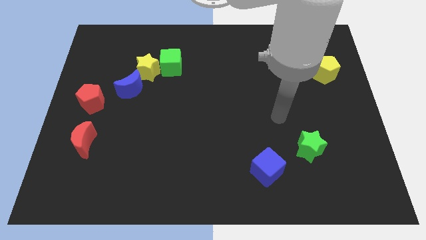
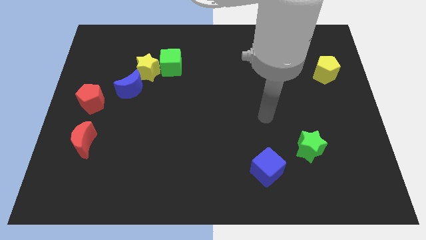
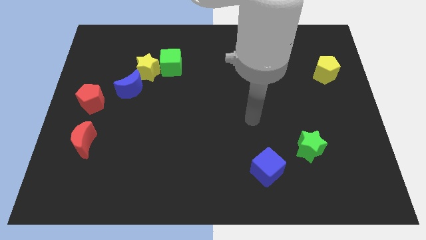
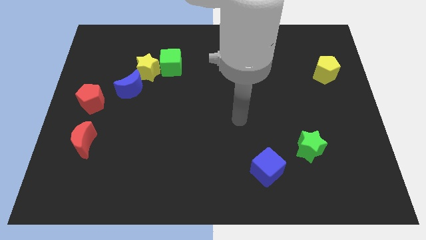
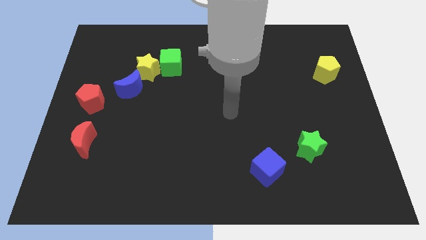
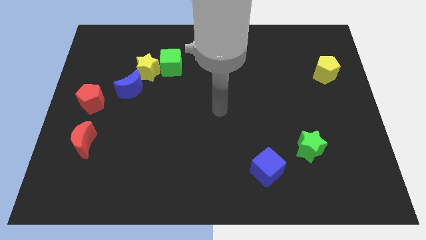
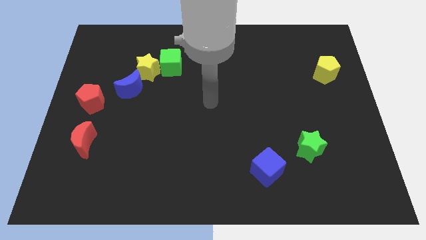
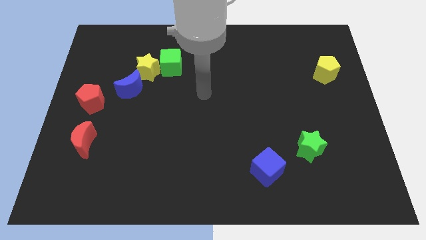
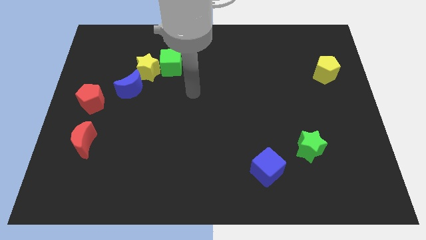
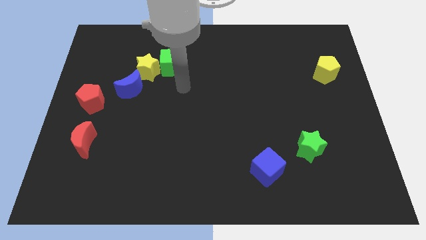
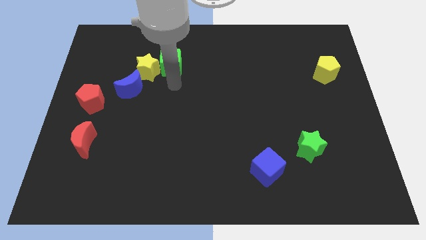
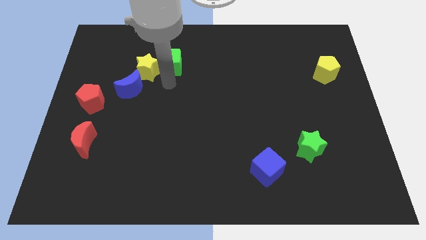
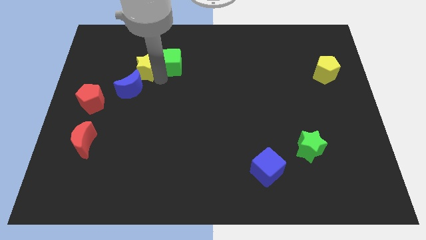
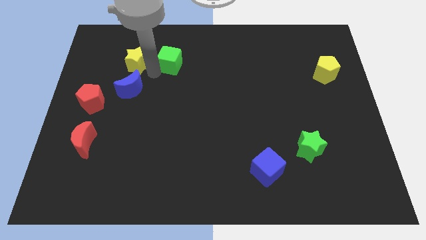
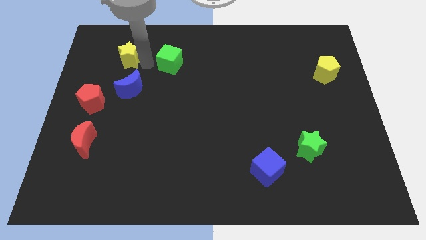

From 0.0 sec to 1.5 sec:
pull the green cube apart from the yellow star

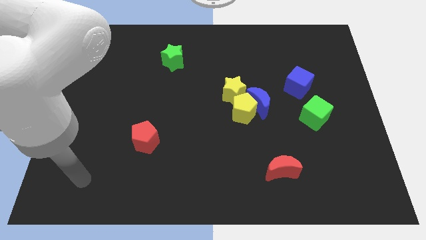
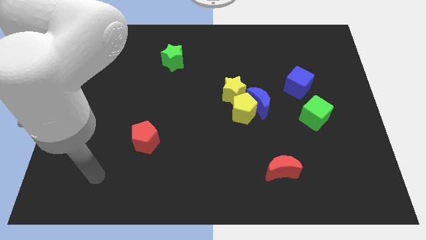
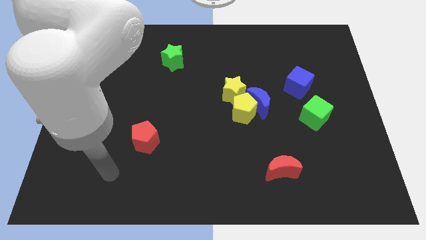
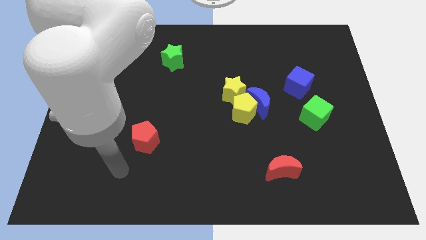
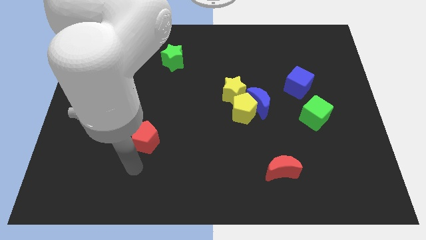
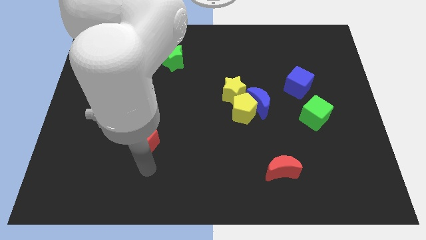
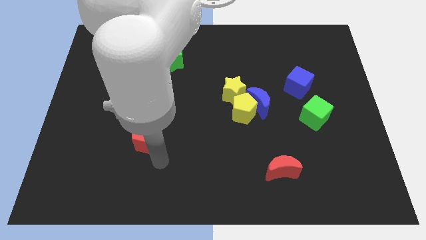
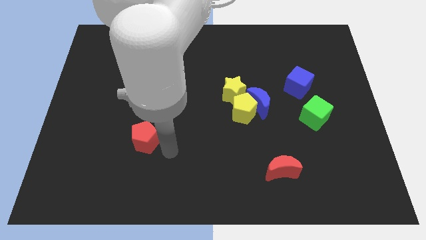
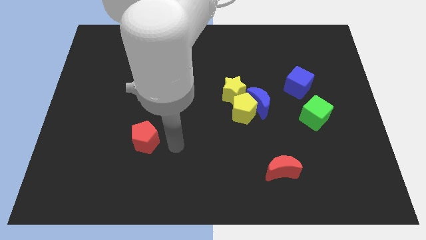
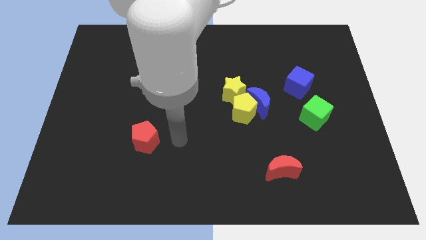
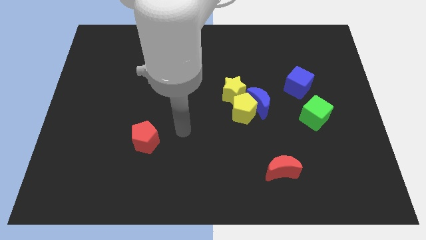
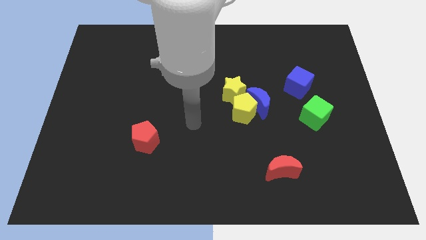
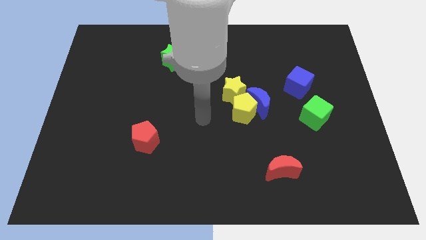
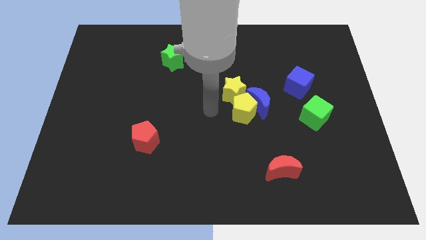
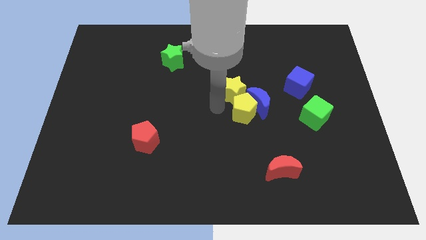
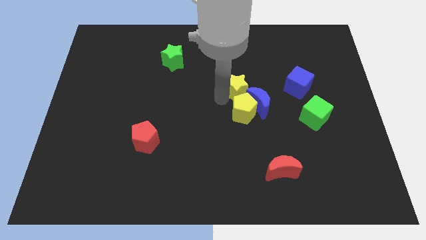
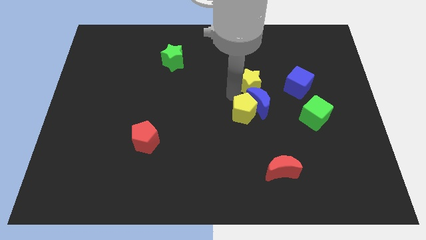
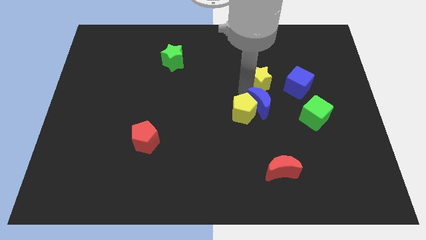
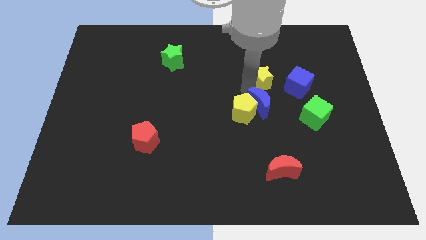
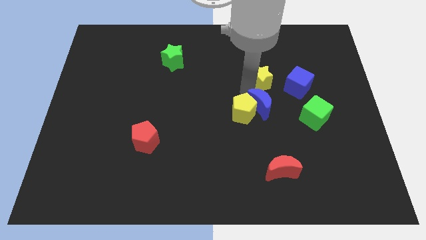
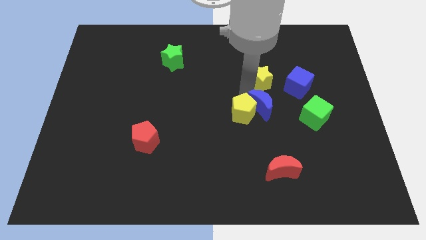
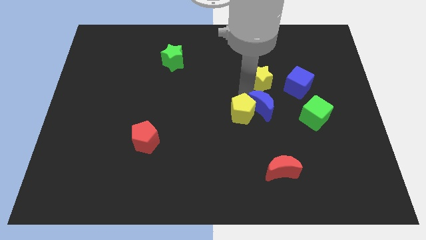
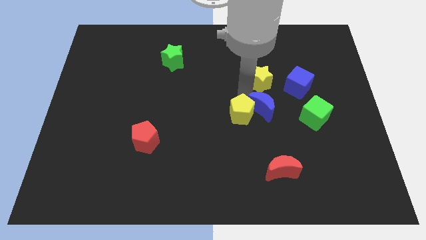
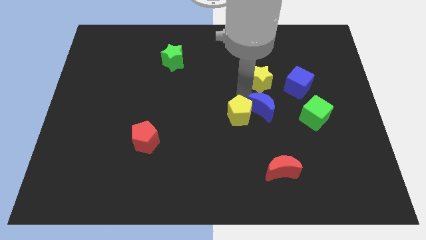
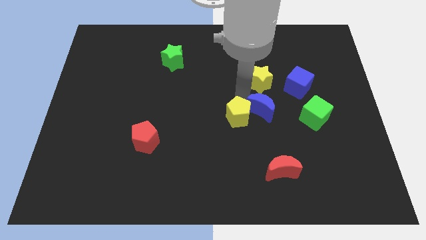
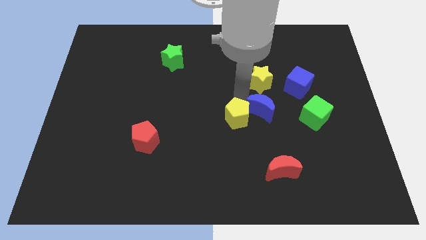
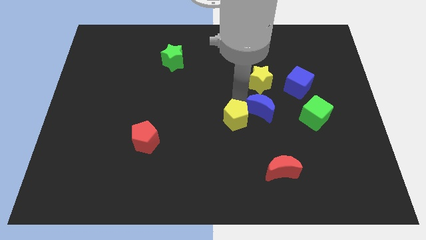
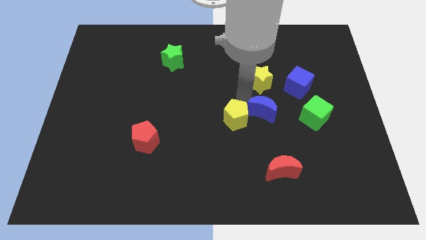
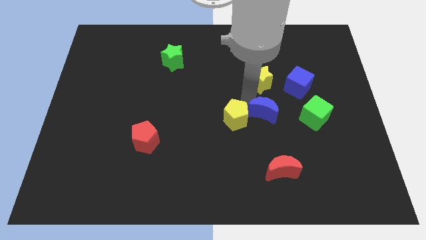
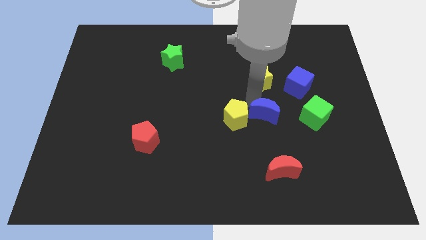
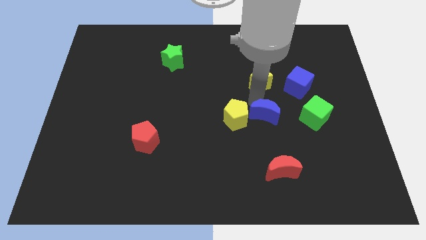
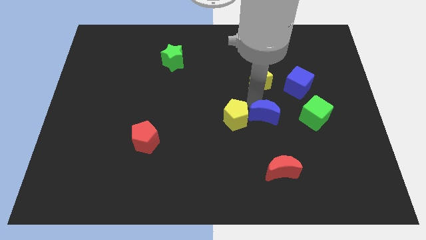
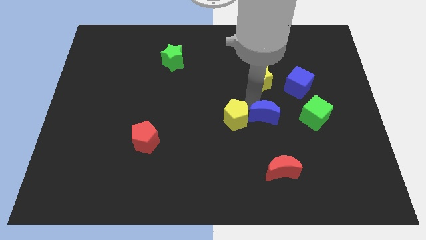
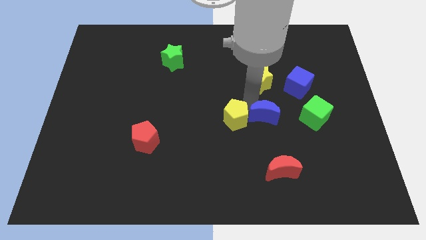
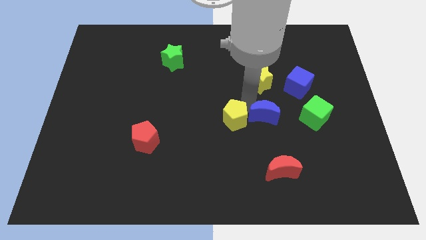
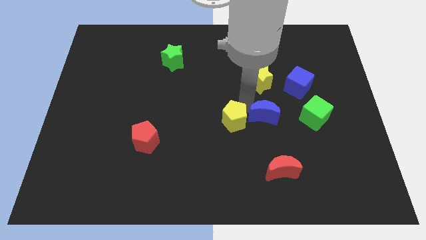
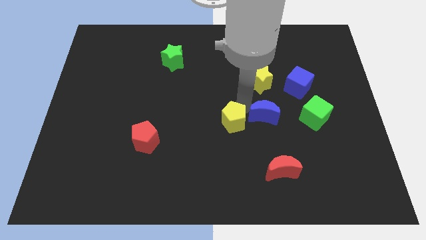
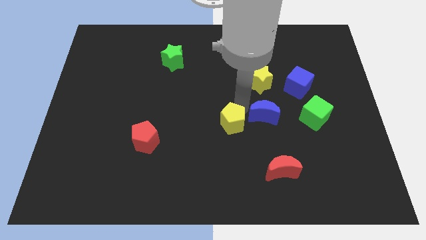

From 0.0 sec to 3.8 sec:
separate the yellow pentagon from the blue moon and yellow star

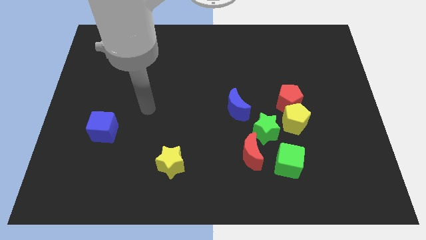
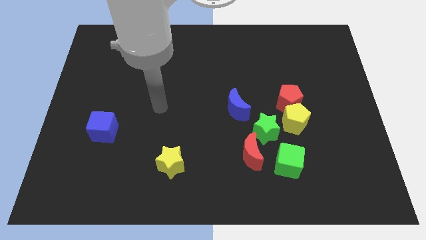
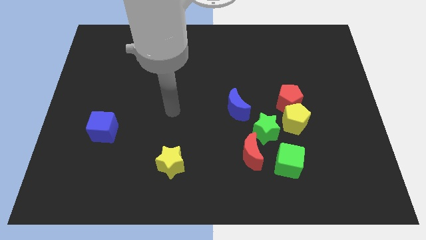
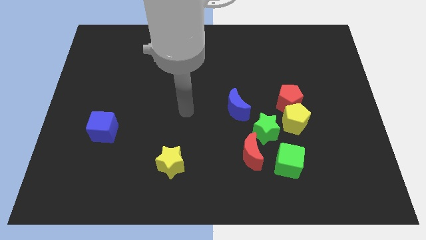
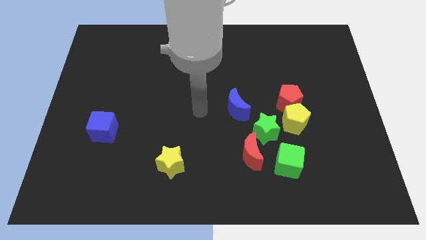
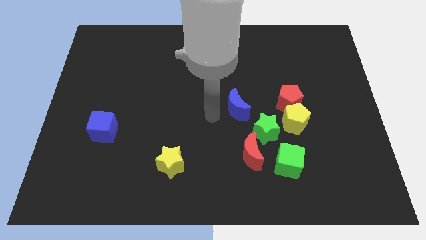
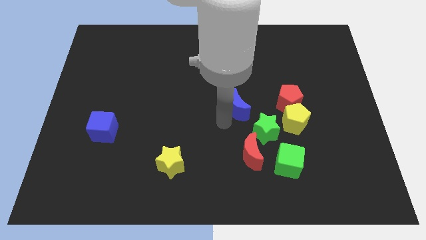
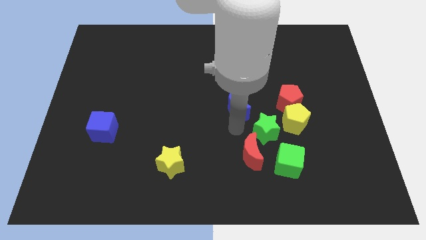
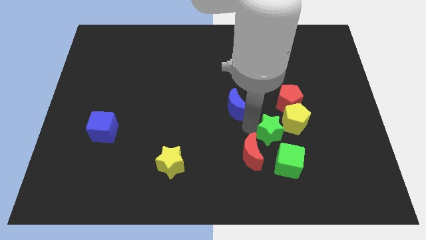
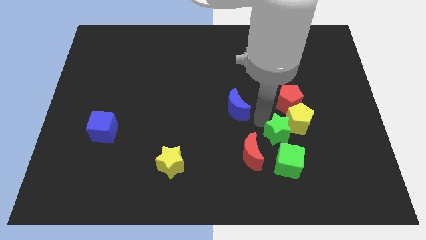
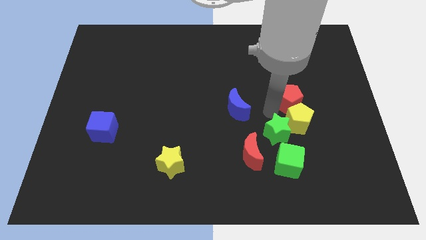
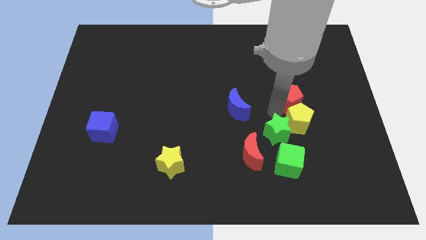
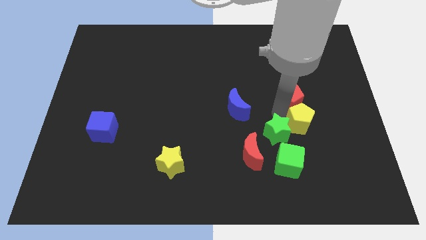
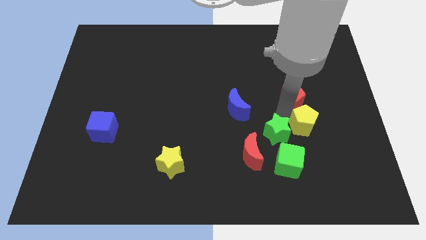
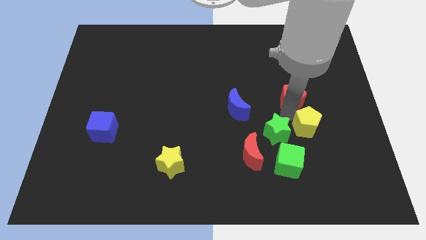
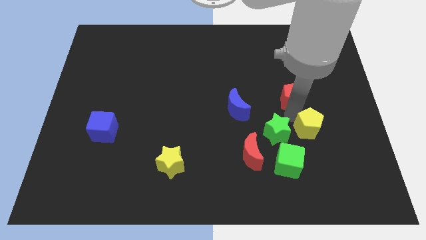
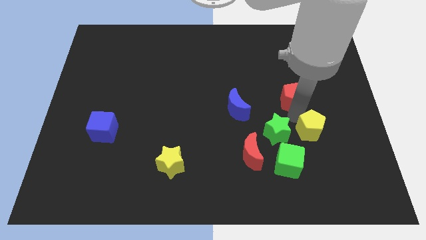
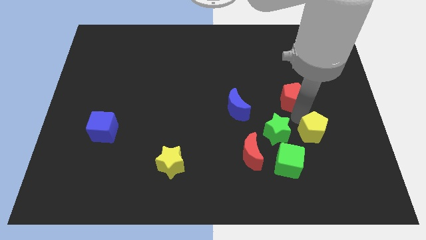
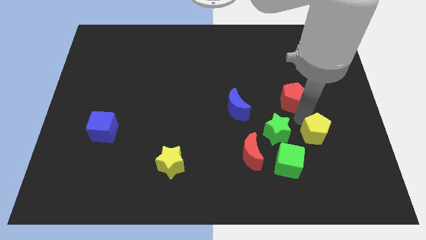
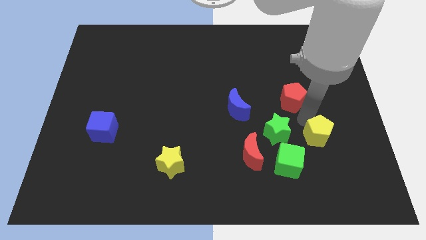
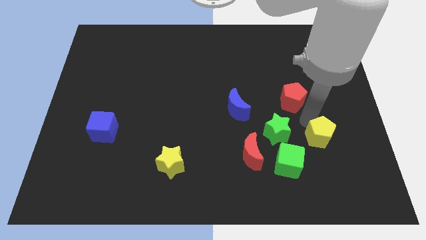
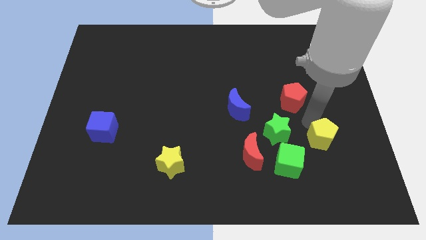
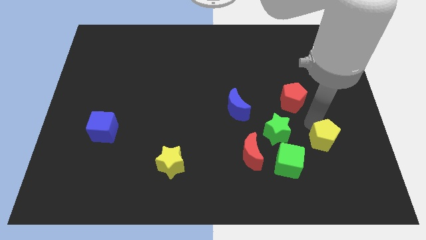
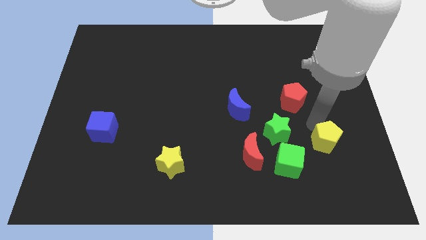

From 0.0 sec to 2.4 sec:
pull the yellow pentagon apart from the red pentagon and green star

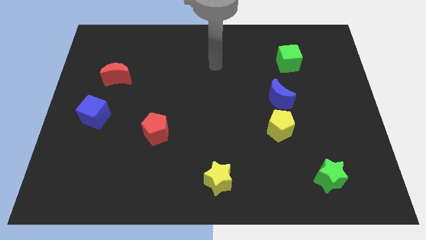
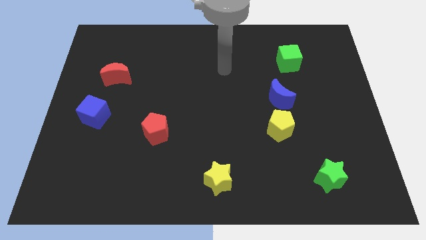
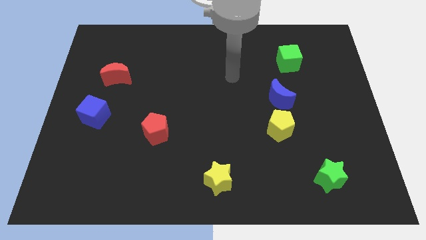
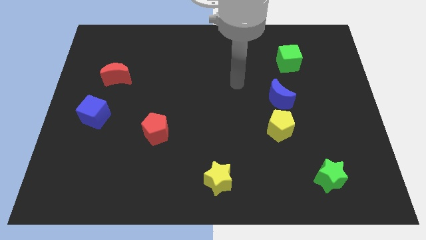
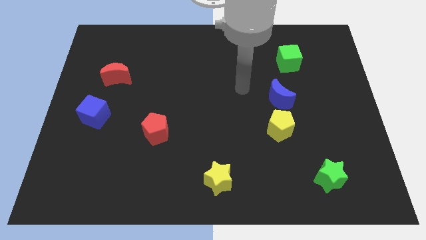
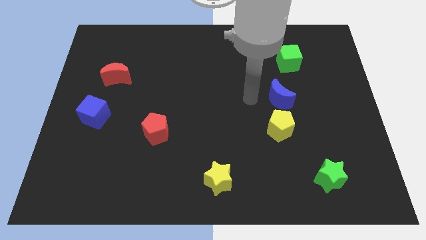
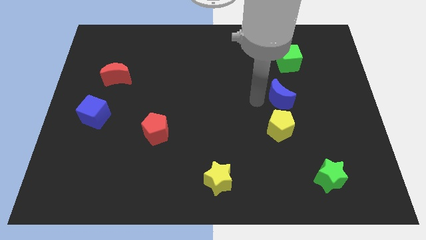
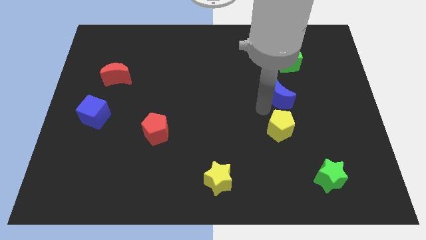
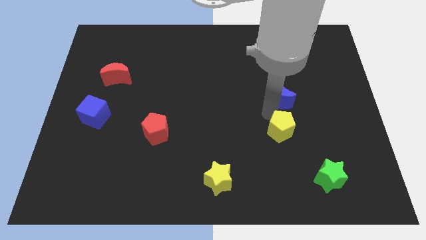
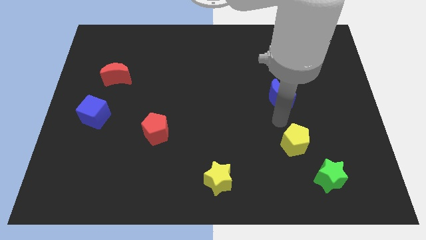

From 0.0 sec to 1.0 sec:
separate the blue moon from the yellow pentagon

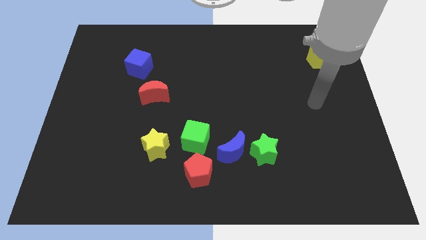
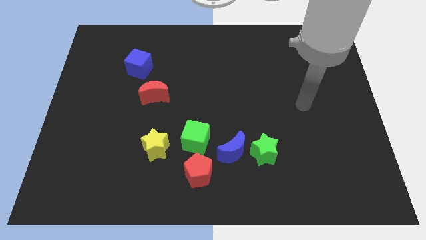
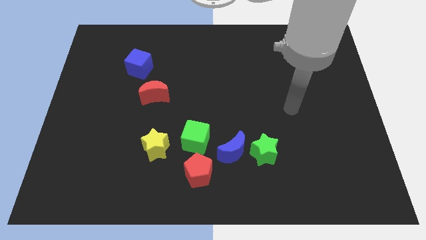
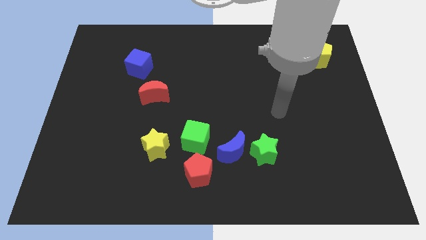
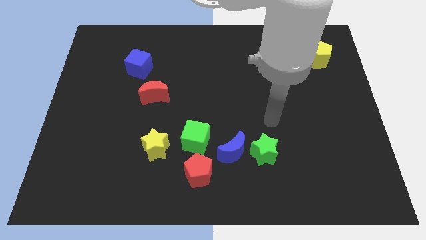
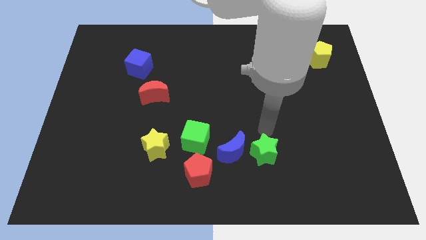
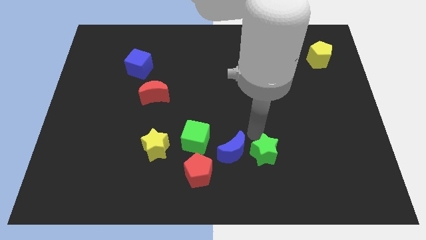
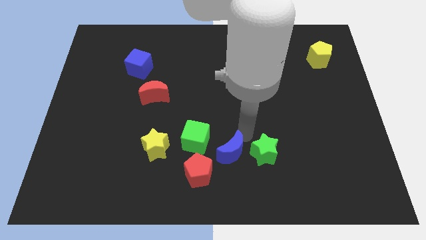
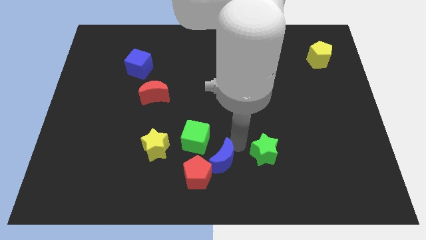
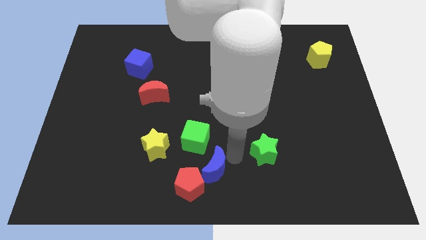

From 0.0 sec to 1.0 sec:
separate the green star from the blue moon
